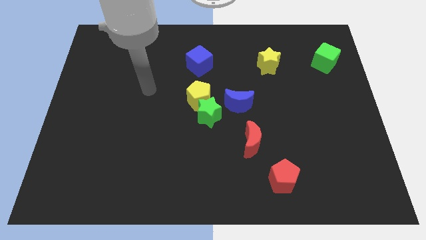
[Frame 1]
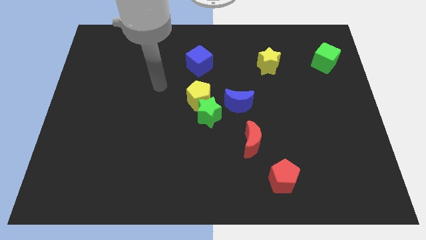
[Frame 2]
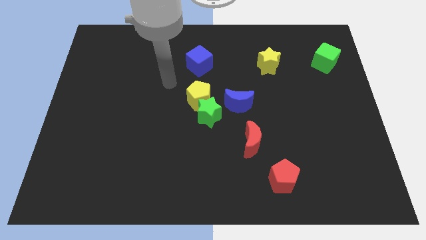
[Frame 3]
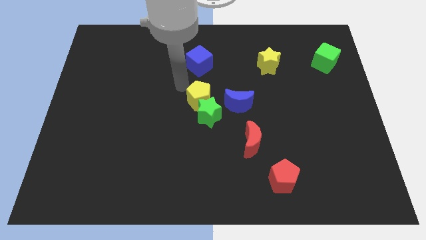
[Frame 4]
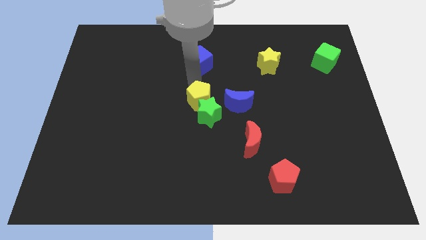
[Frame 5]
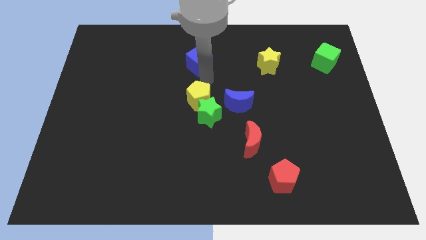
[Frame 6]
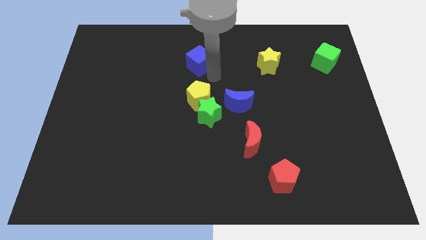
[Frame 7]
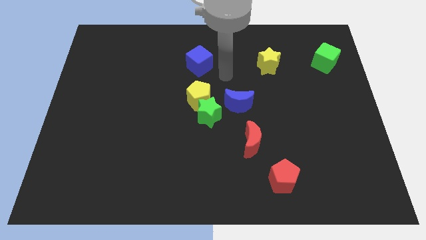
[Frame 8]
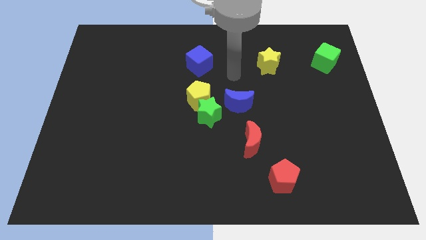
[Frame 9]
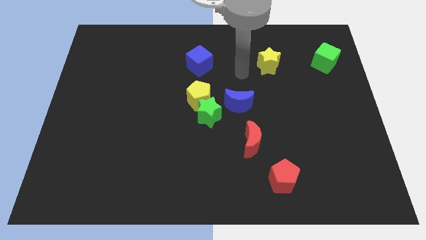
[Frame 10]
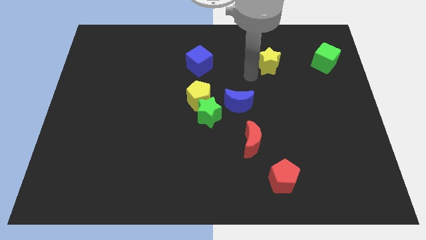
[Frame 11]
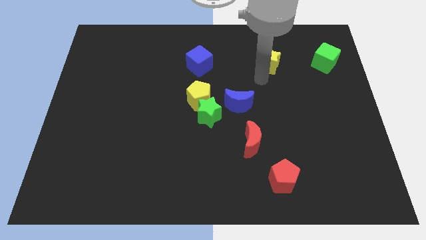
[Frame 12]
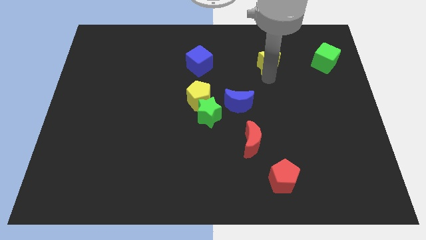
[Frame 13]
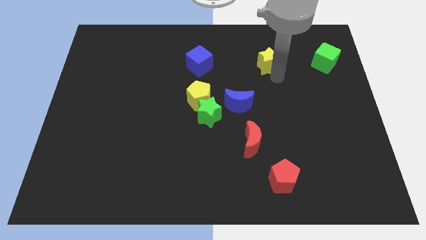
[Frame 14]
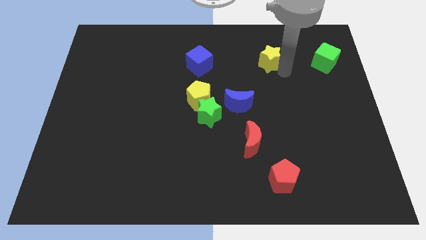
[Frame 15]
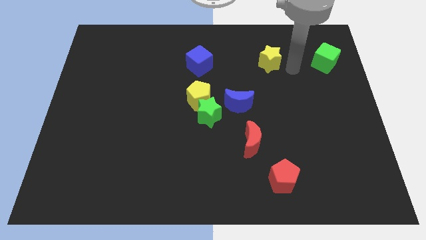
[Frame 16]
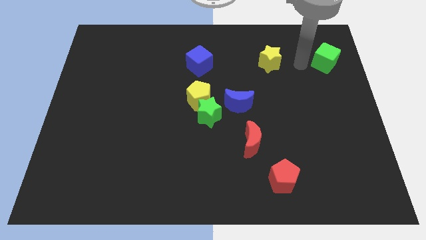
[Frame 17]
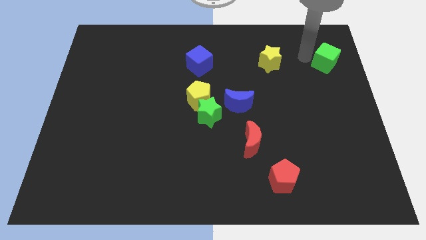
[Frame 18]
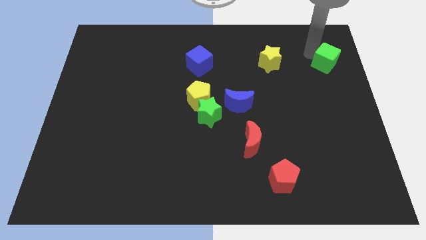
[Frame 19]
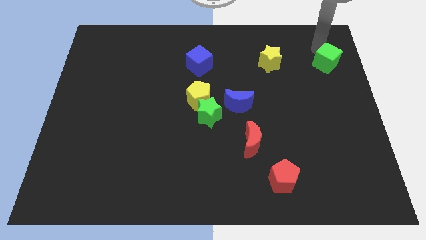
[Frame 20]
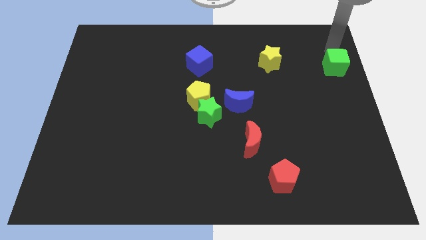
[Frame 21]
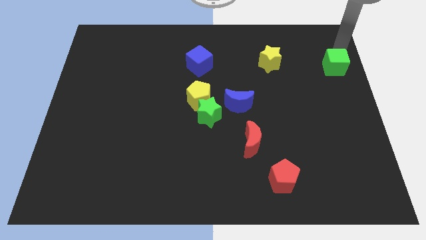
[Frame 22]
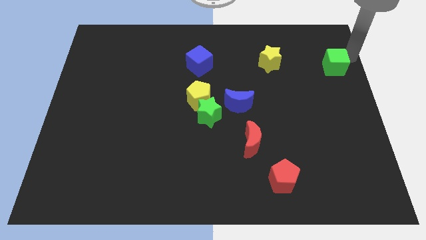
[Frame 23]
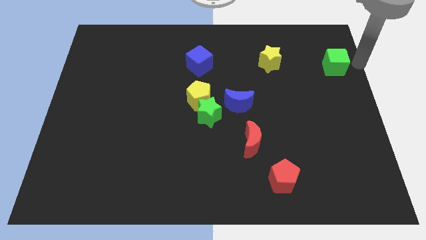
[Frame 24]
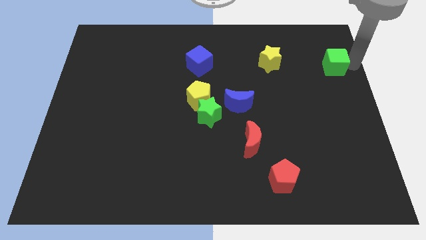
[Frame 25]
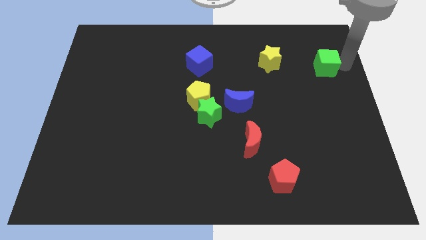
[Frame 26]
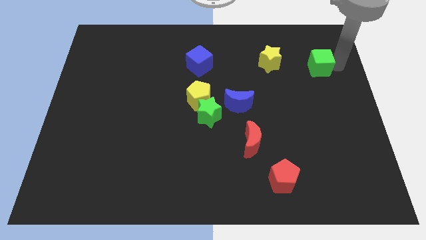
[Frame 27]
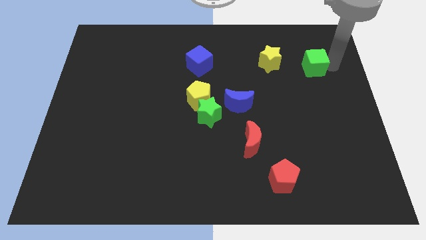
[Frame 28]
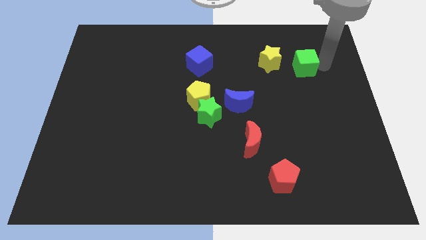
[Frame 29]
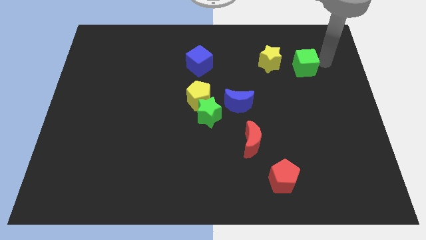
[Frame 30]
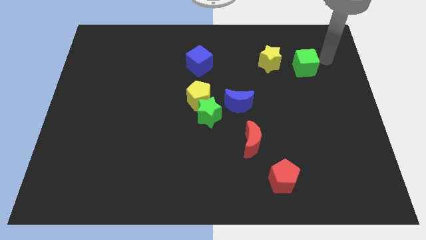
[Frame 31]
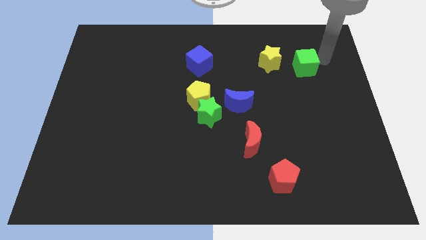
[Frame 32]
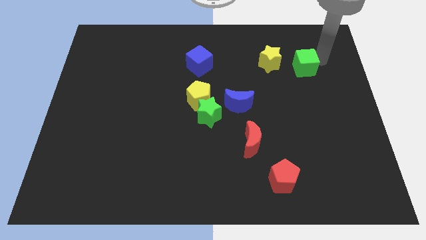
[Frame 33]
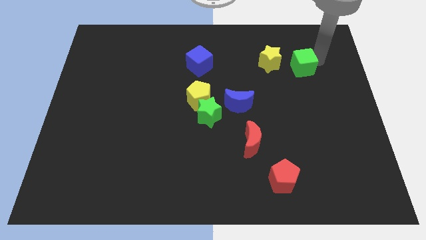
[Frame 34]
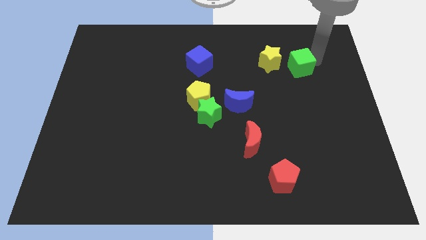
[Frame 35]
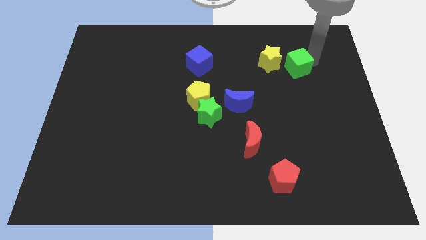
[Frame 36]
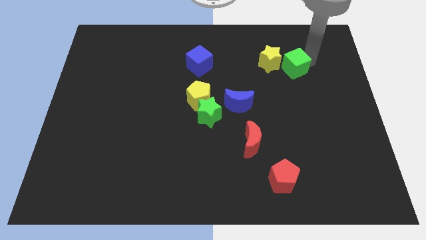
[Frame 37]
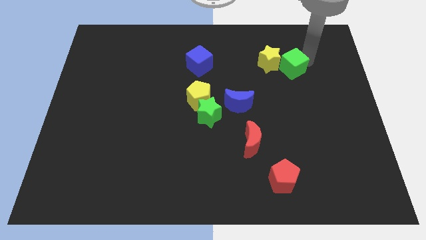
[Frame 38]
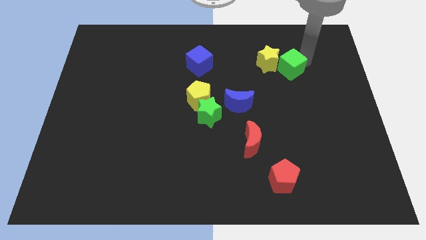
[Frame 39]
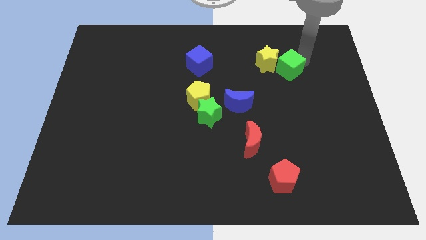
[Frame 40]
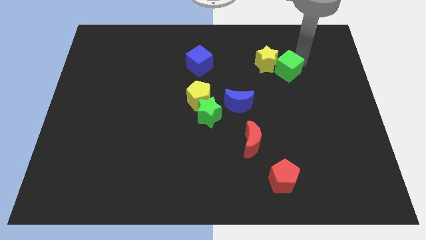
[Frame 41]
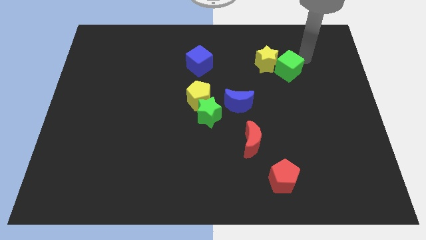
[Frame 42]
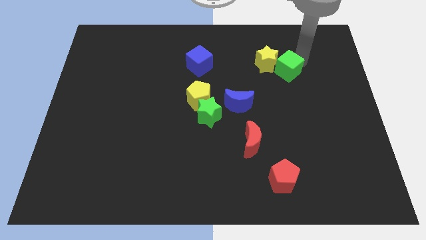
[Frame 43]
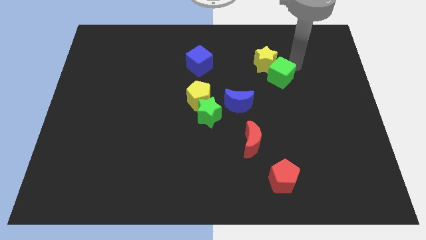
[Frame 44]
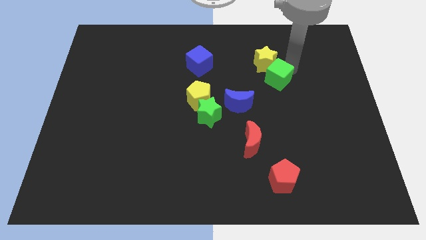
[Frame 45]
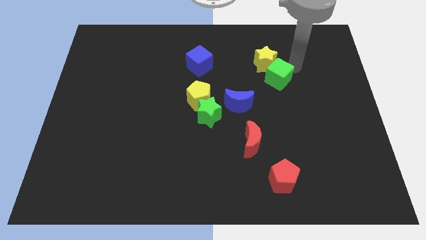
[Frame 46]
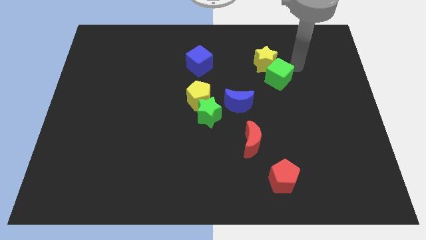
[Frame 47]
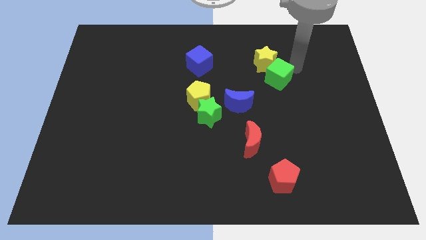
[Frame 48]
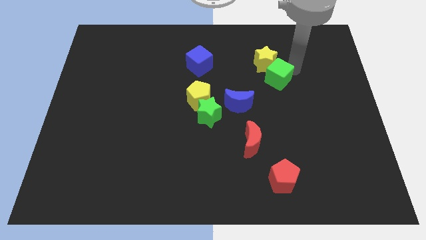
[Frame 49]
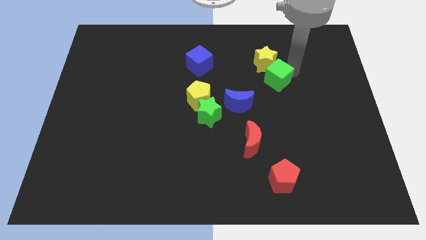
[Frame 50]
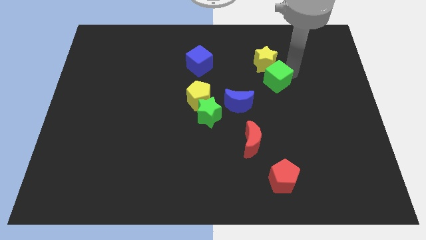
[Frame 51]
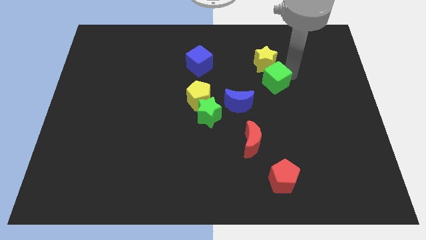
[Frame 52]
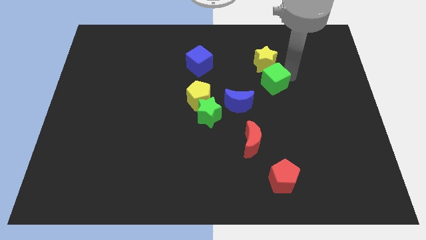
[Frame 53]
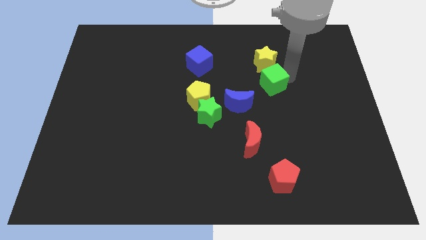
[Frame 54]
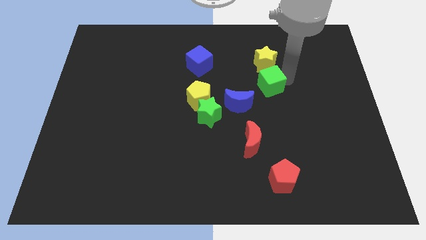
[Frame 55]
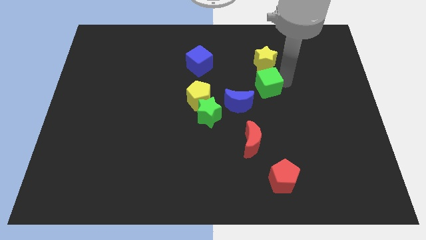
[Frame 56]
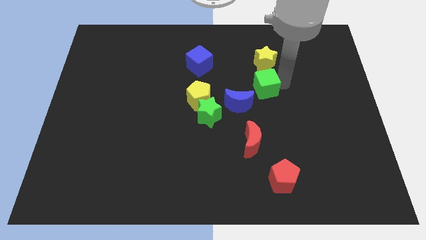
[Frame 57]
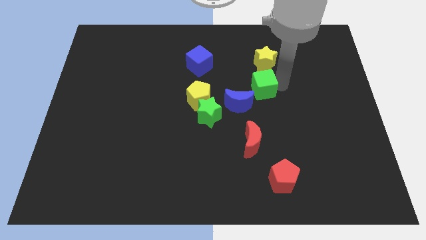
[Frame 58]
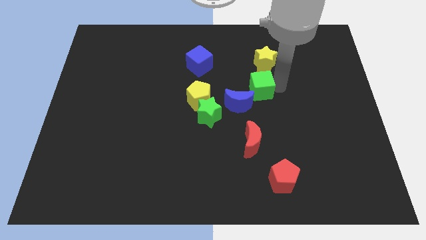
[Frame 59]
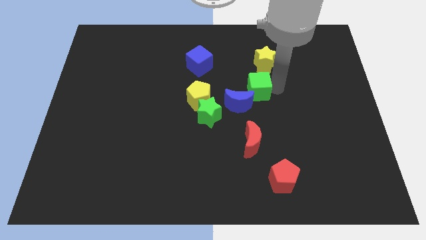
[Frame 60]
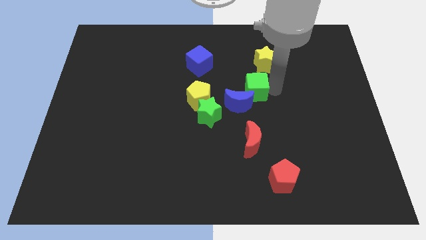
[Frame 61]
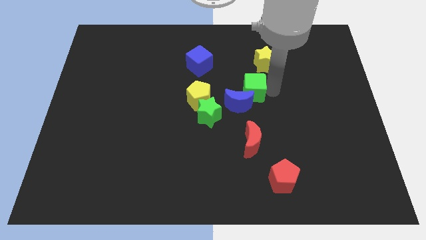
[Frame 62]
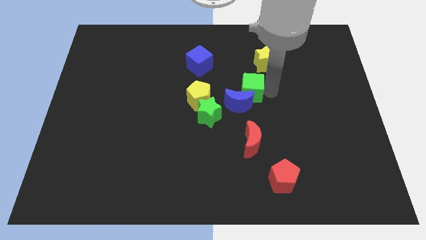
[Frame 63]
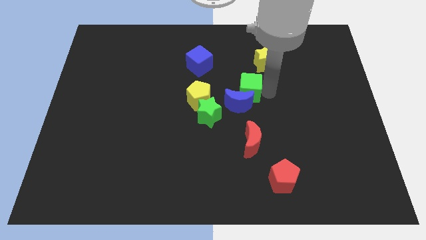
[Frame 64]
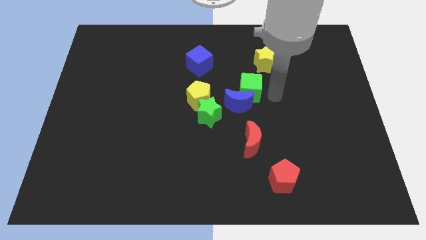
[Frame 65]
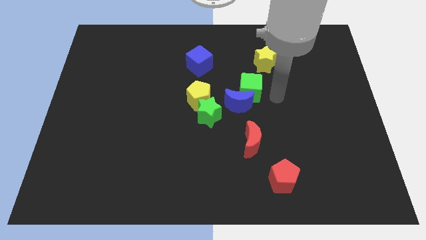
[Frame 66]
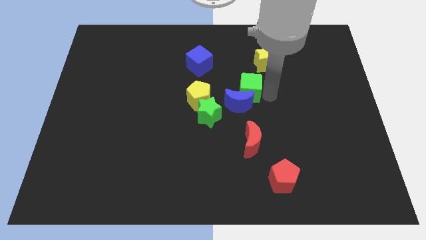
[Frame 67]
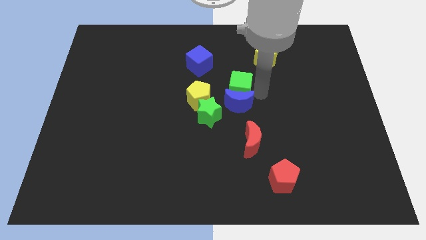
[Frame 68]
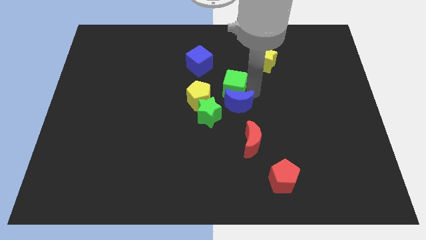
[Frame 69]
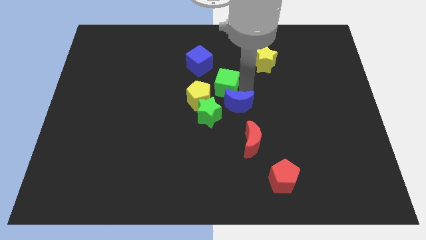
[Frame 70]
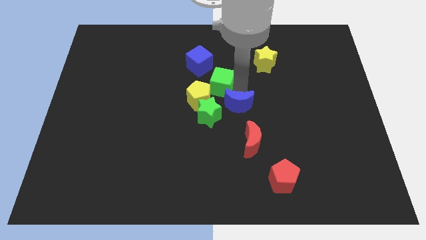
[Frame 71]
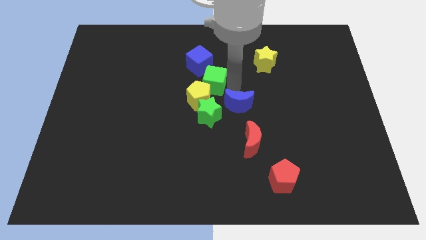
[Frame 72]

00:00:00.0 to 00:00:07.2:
slide the green cube close to the yellow pentagon

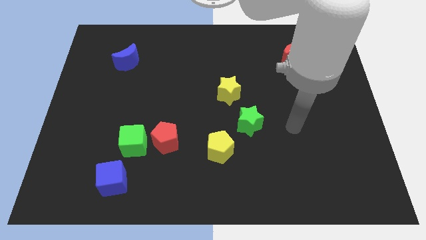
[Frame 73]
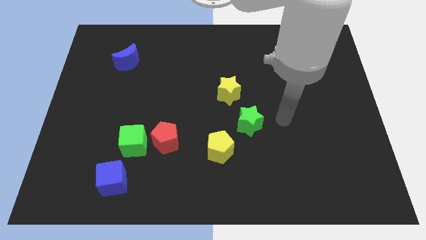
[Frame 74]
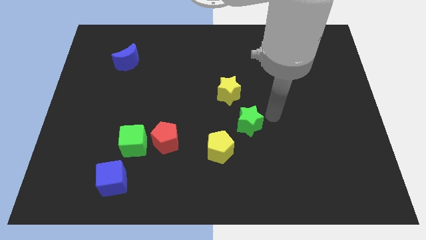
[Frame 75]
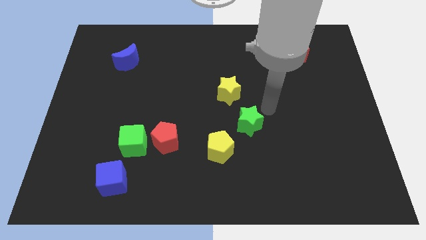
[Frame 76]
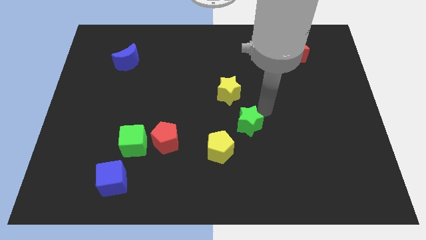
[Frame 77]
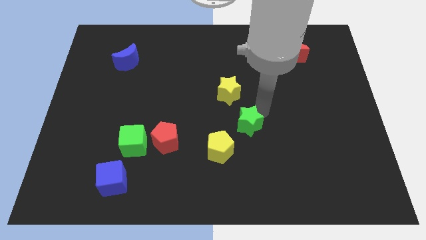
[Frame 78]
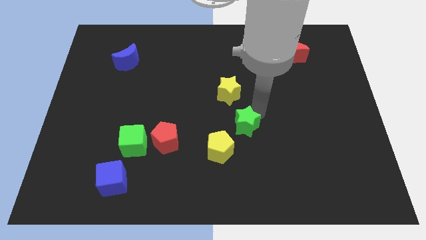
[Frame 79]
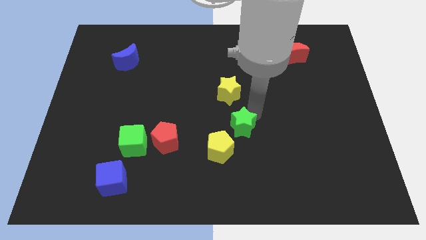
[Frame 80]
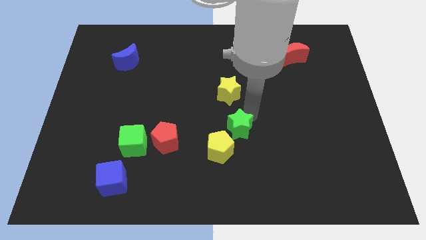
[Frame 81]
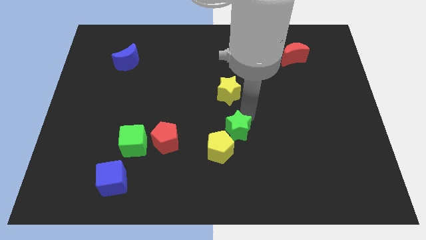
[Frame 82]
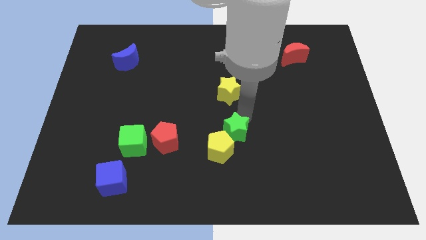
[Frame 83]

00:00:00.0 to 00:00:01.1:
move the green star next to the yellow pentagon
